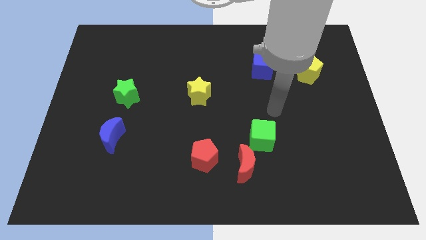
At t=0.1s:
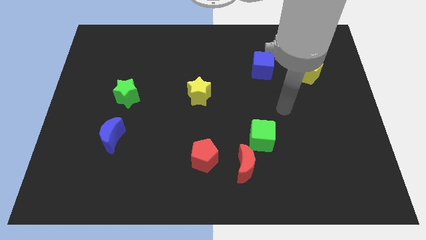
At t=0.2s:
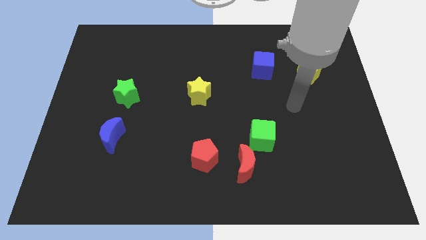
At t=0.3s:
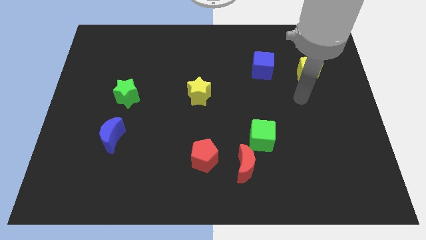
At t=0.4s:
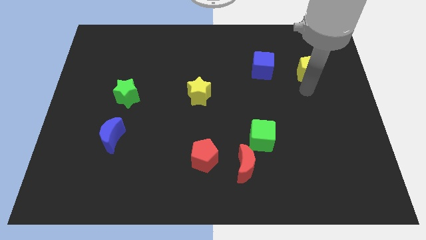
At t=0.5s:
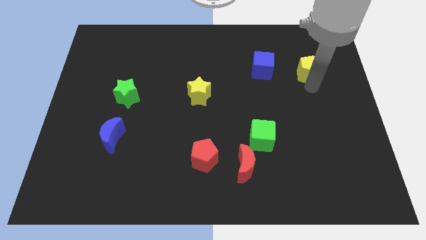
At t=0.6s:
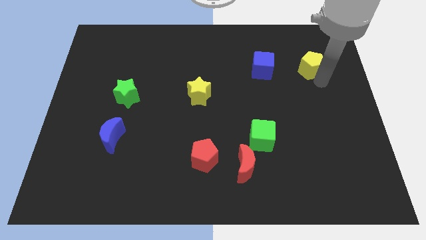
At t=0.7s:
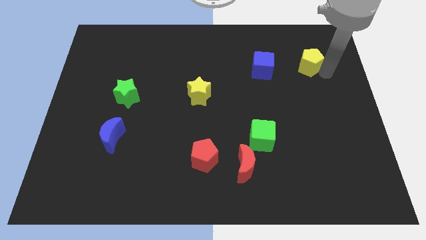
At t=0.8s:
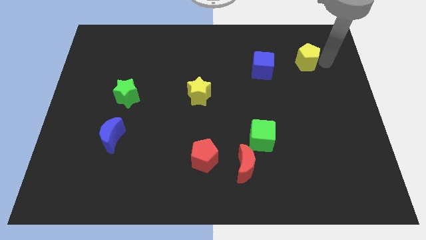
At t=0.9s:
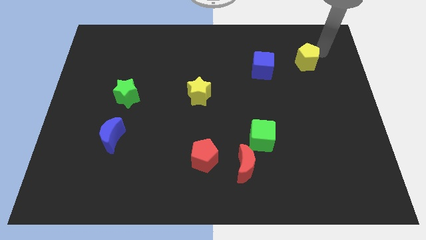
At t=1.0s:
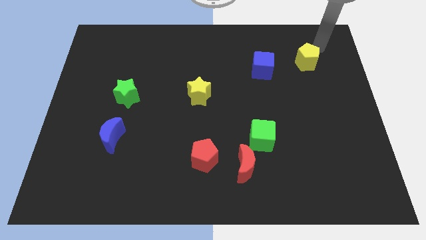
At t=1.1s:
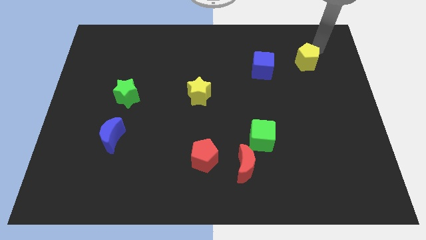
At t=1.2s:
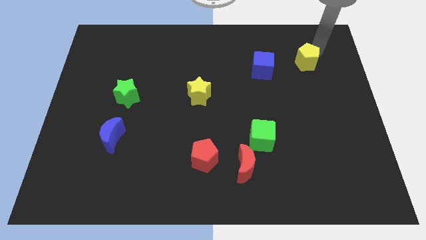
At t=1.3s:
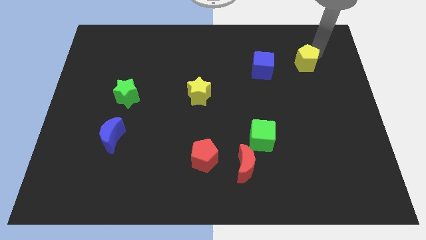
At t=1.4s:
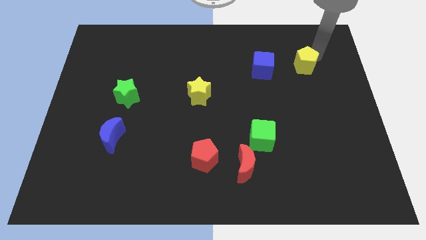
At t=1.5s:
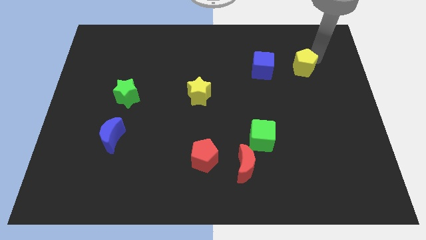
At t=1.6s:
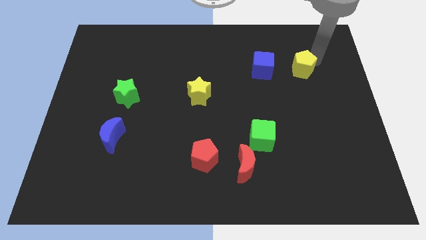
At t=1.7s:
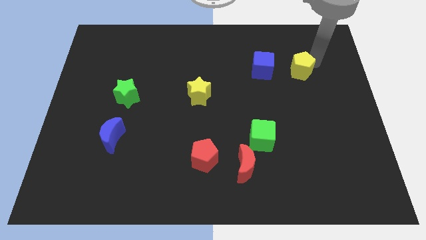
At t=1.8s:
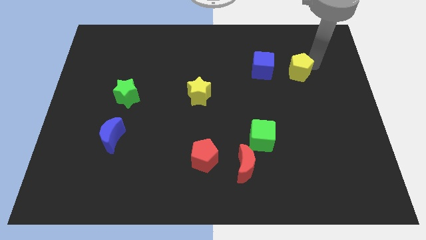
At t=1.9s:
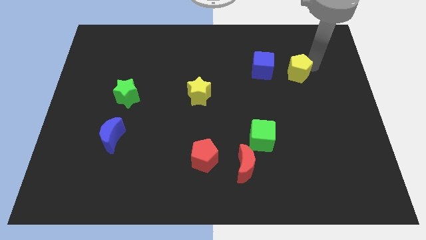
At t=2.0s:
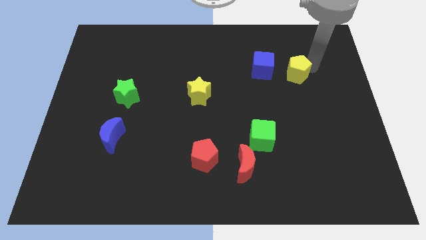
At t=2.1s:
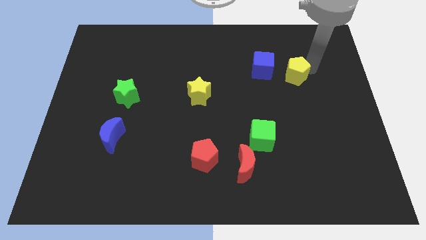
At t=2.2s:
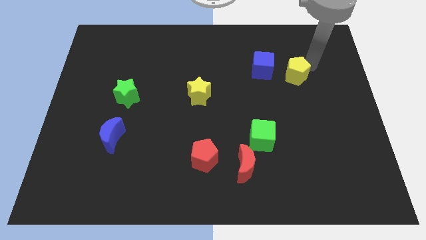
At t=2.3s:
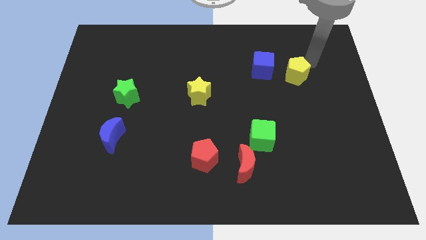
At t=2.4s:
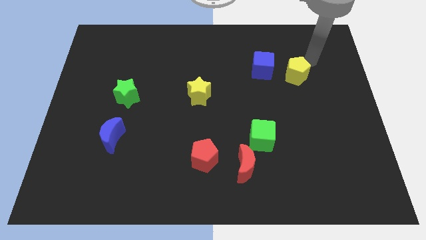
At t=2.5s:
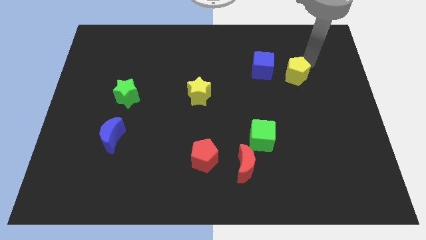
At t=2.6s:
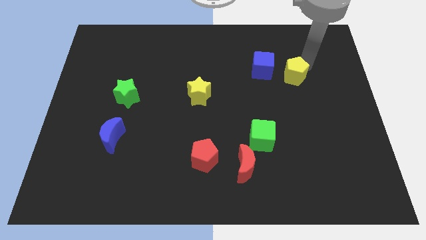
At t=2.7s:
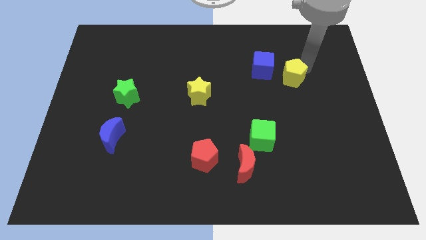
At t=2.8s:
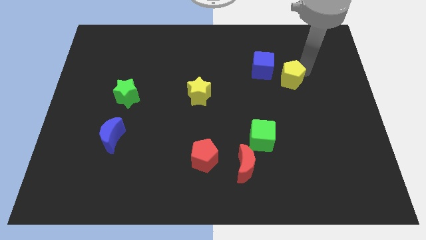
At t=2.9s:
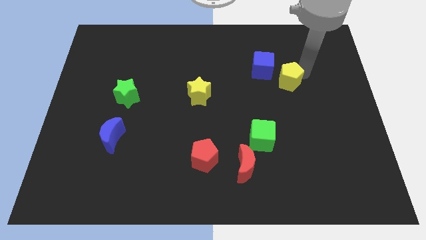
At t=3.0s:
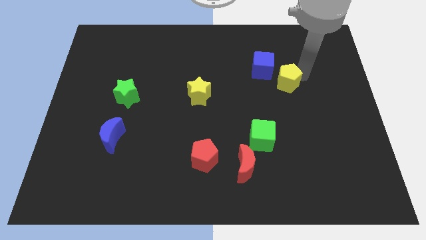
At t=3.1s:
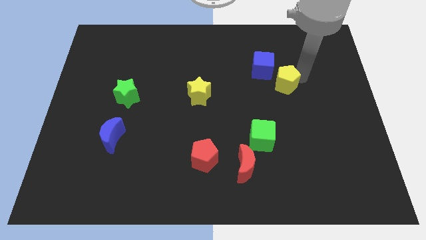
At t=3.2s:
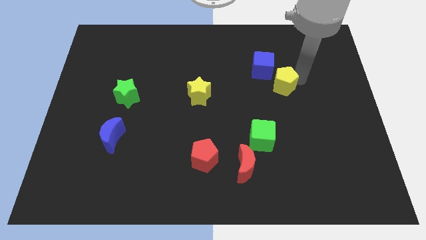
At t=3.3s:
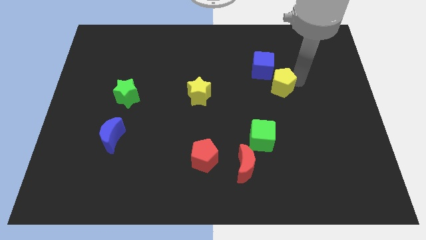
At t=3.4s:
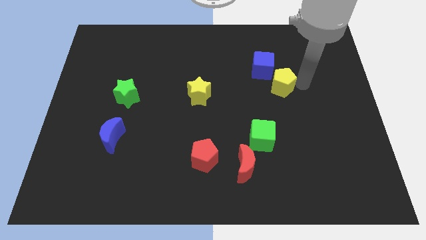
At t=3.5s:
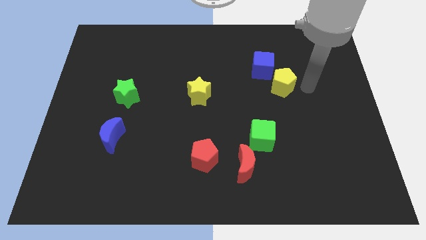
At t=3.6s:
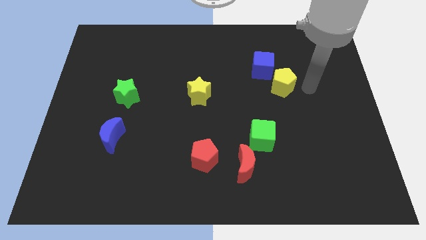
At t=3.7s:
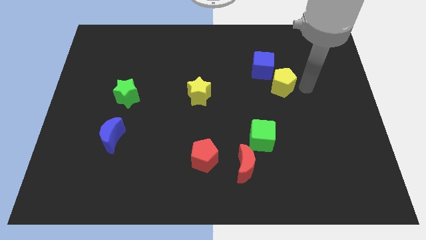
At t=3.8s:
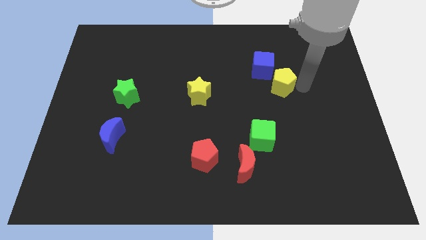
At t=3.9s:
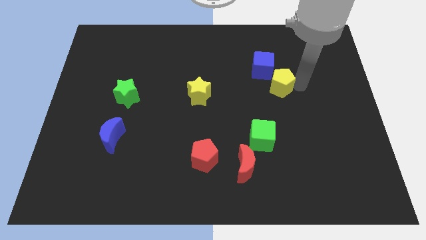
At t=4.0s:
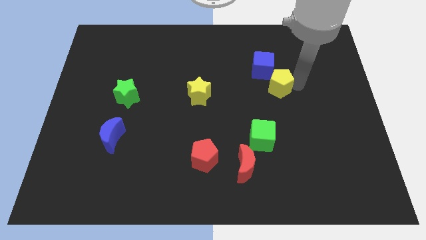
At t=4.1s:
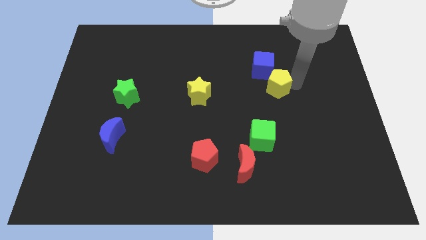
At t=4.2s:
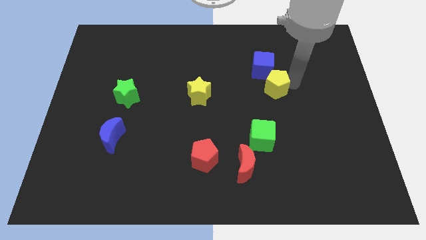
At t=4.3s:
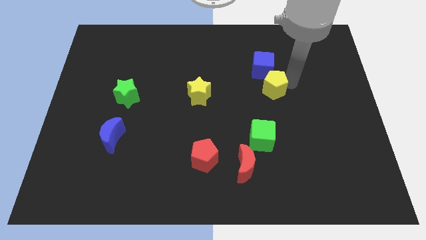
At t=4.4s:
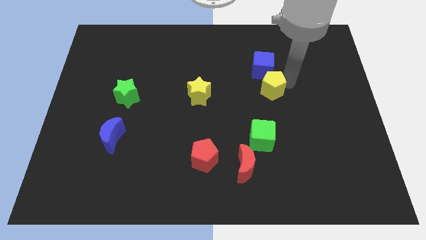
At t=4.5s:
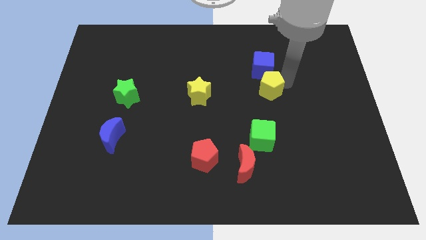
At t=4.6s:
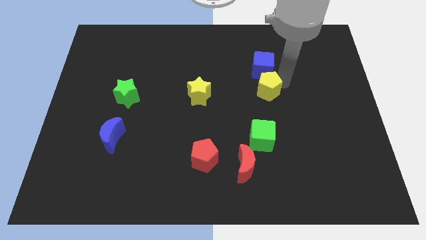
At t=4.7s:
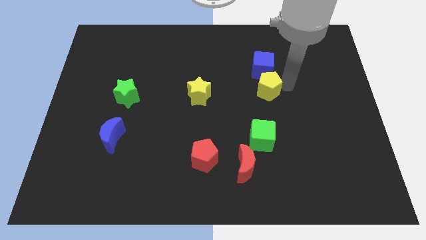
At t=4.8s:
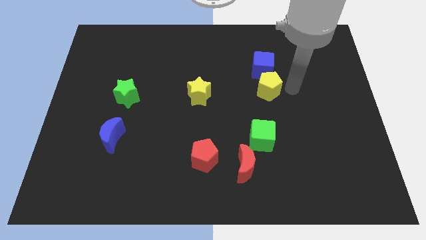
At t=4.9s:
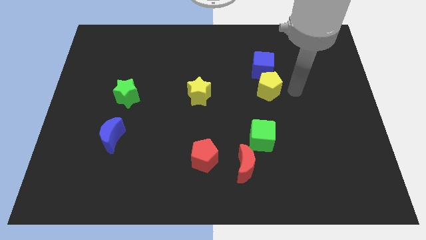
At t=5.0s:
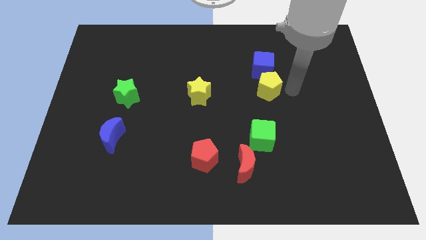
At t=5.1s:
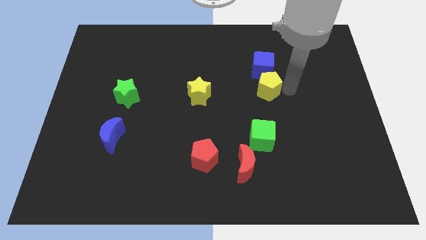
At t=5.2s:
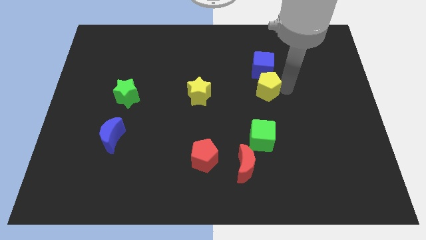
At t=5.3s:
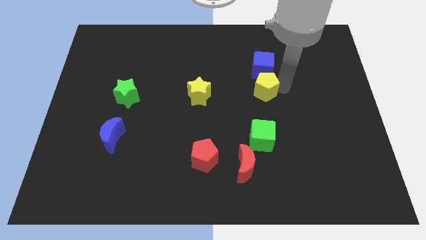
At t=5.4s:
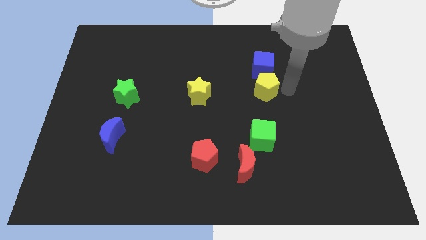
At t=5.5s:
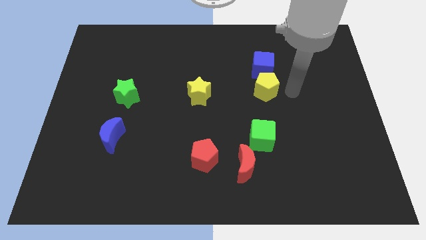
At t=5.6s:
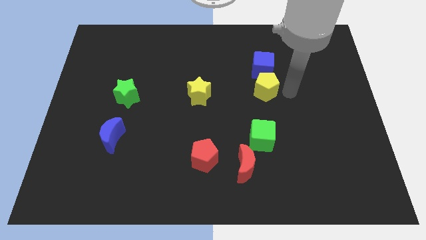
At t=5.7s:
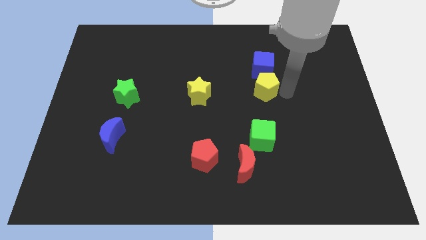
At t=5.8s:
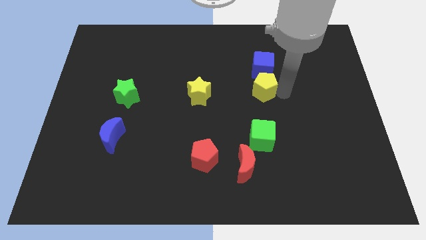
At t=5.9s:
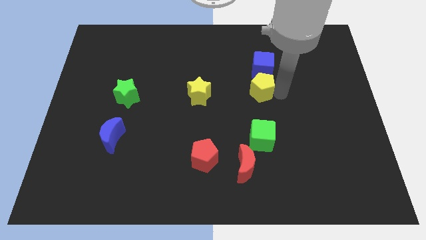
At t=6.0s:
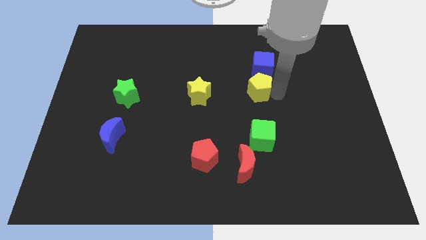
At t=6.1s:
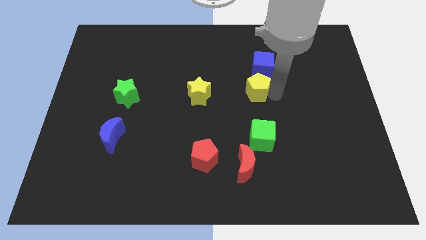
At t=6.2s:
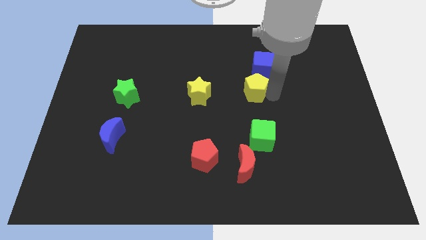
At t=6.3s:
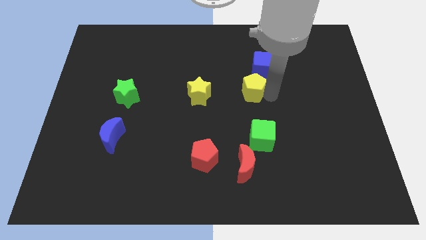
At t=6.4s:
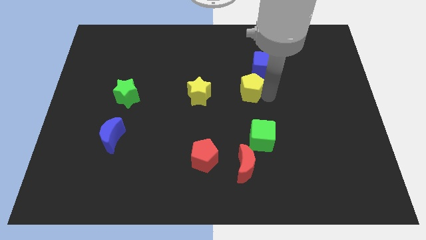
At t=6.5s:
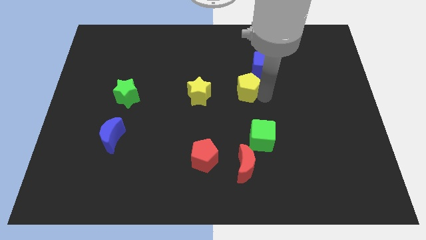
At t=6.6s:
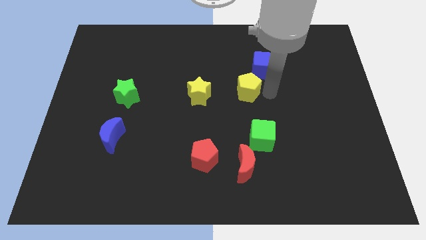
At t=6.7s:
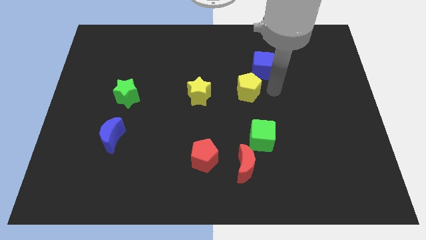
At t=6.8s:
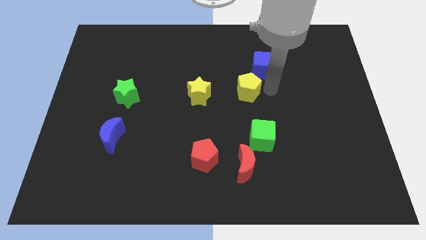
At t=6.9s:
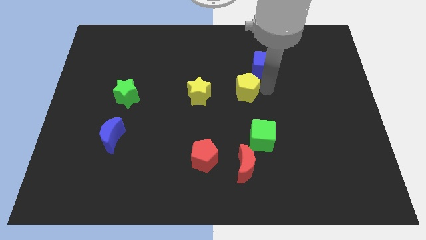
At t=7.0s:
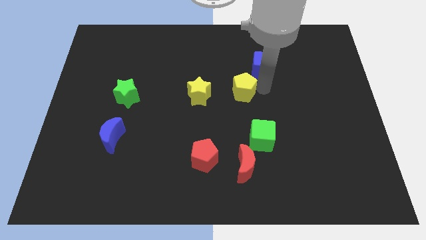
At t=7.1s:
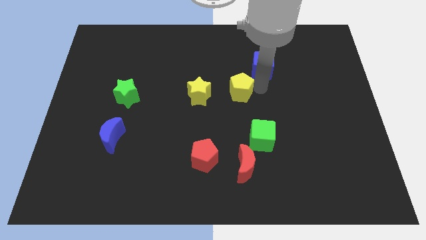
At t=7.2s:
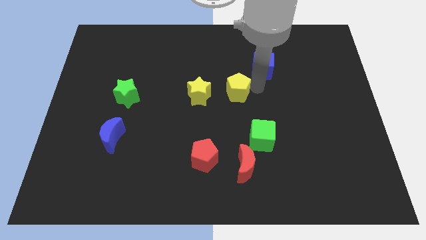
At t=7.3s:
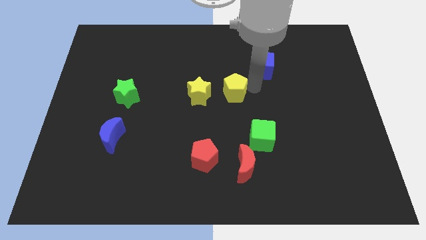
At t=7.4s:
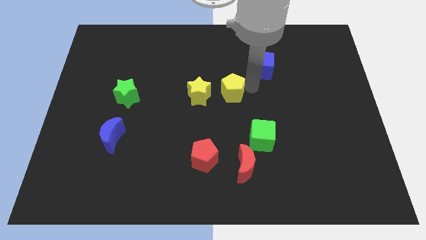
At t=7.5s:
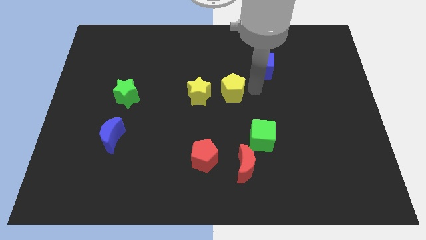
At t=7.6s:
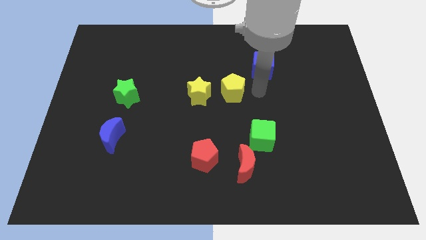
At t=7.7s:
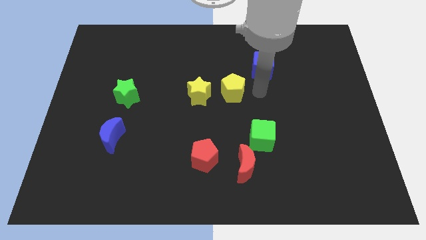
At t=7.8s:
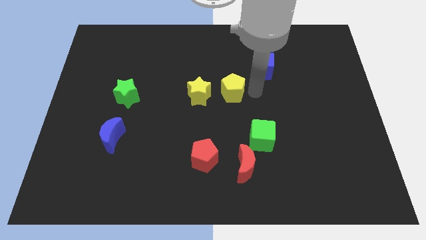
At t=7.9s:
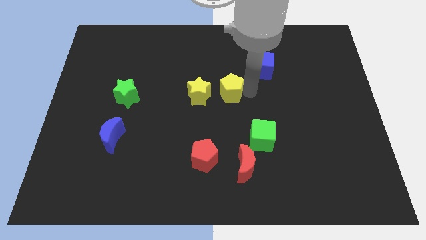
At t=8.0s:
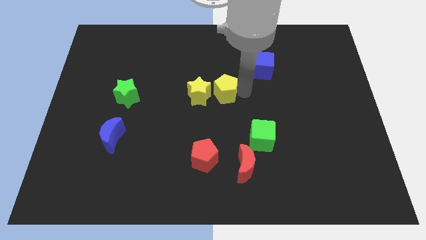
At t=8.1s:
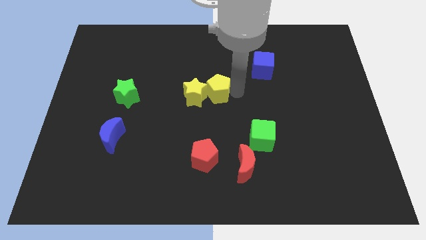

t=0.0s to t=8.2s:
push the yellow pentagon next to the yellow star
